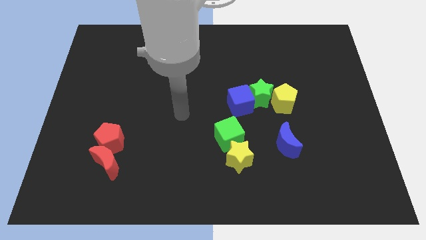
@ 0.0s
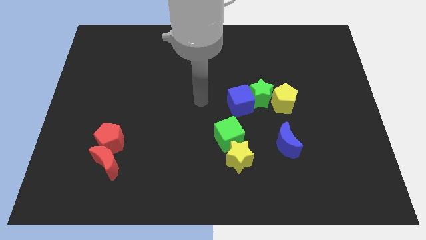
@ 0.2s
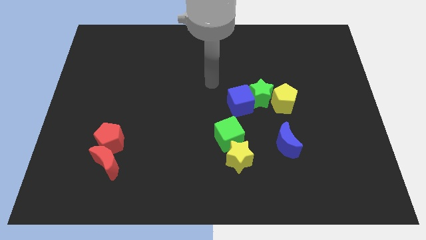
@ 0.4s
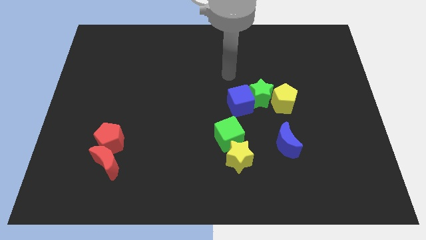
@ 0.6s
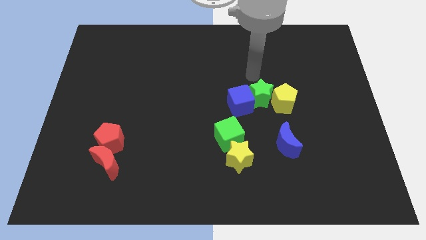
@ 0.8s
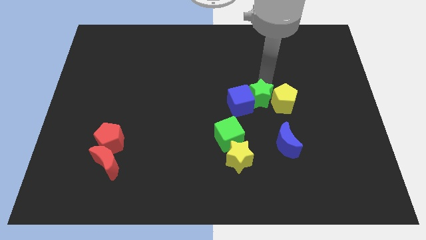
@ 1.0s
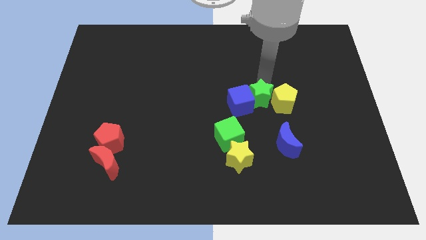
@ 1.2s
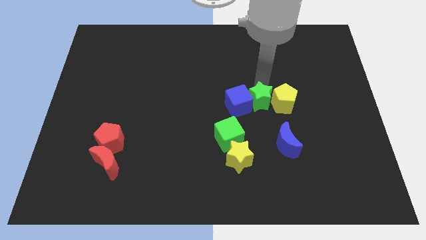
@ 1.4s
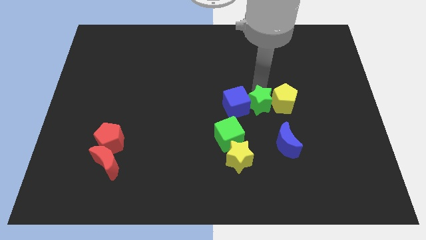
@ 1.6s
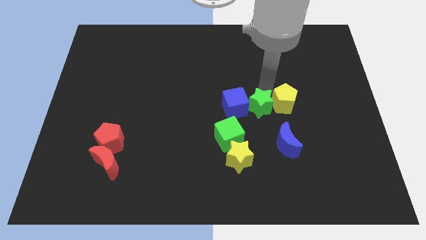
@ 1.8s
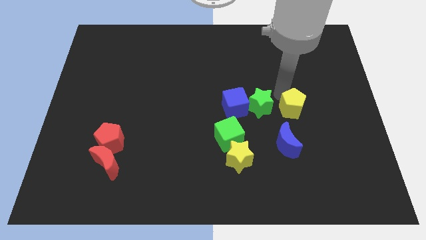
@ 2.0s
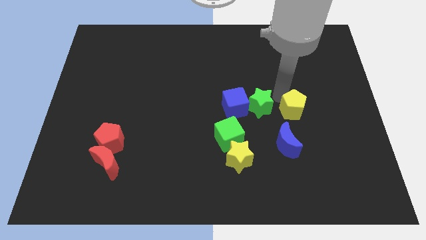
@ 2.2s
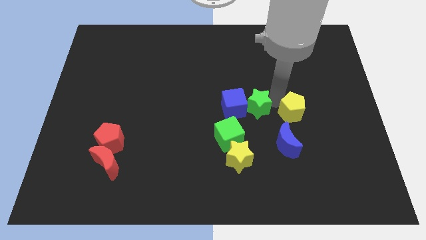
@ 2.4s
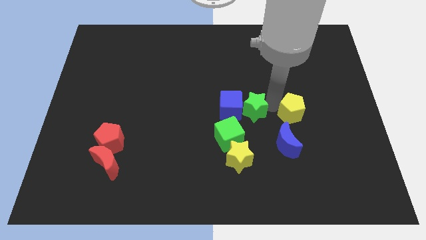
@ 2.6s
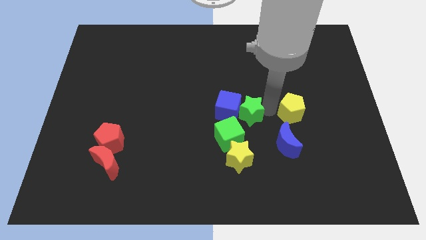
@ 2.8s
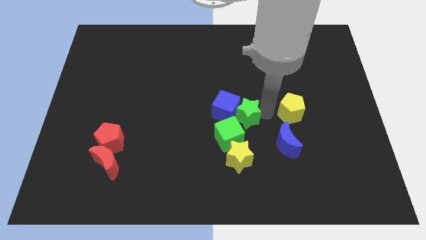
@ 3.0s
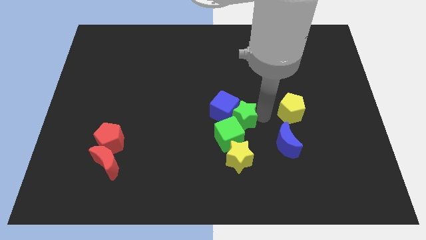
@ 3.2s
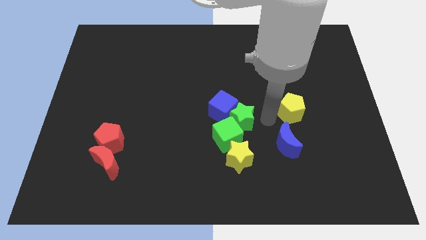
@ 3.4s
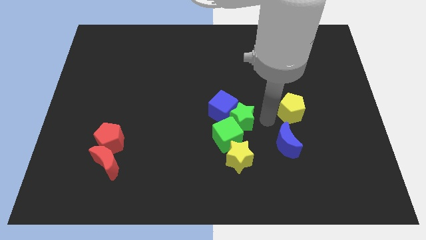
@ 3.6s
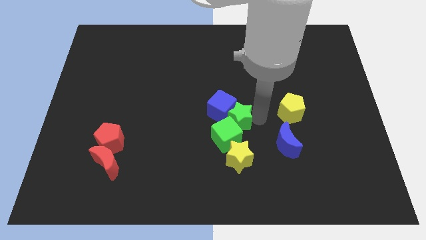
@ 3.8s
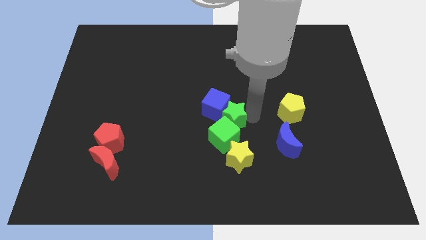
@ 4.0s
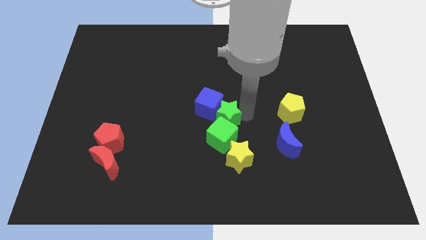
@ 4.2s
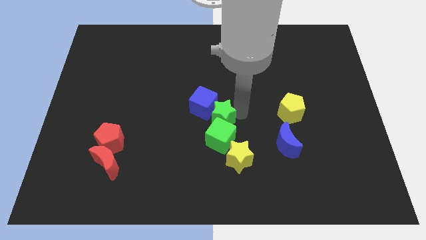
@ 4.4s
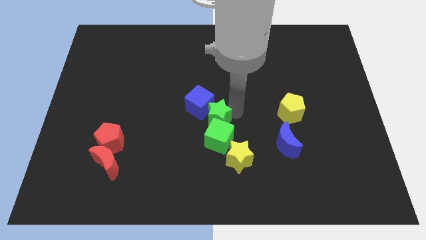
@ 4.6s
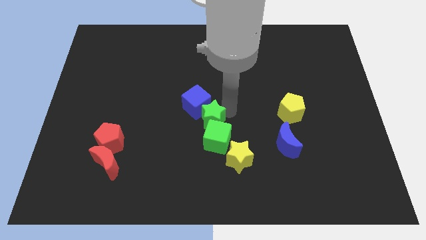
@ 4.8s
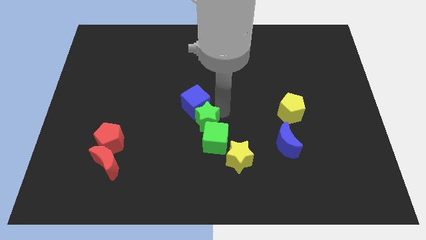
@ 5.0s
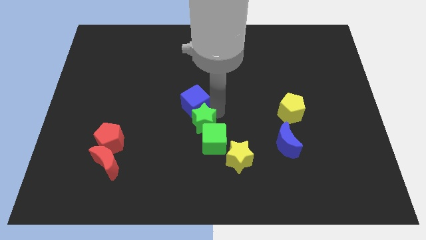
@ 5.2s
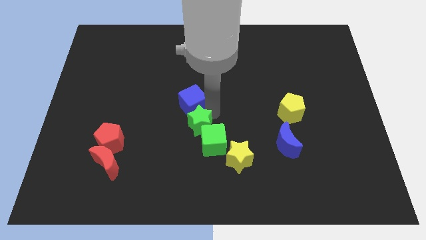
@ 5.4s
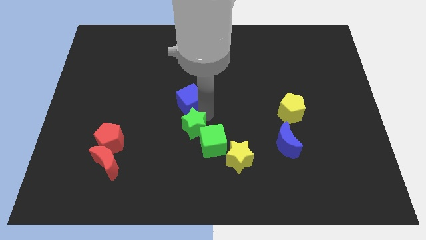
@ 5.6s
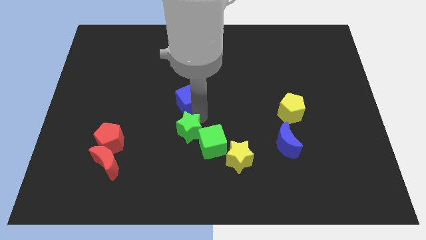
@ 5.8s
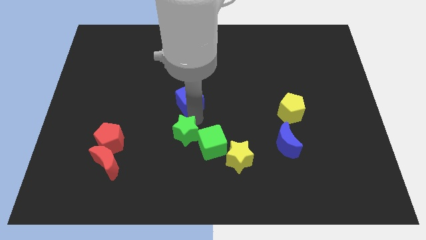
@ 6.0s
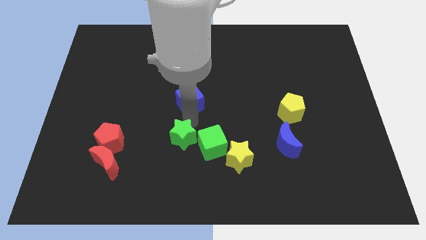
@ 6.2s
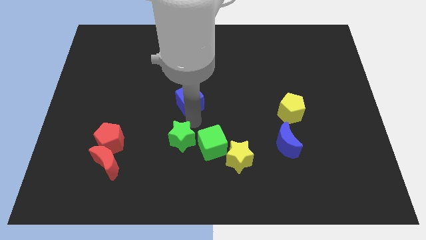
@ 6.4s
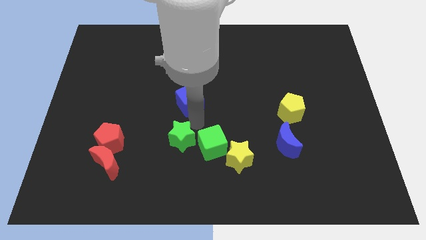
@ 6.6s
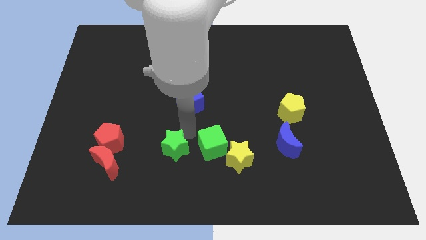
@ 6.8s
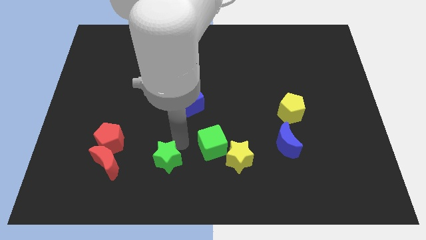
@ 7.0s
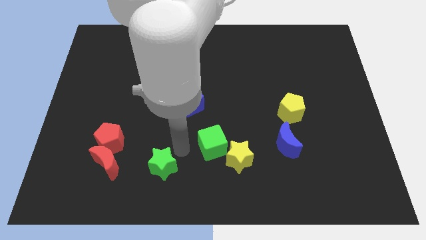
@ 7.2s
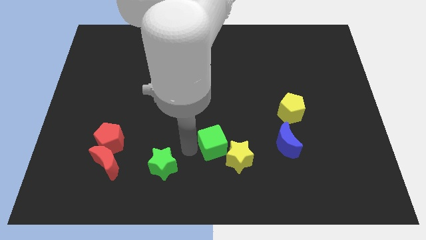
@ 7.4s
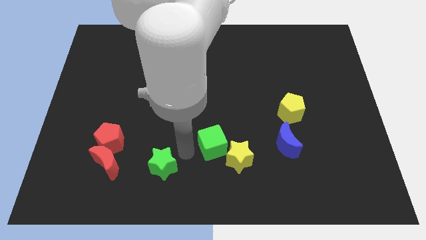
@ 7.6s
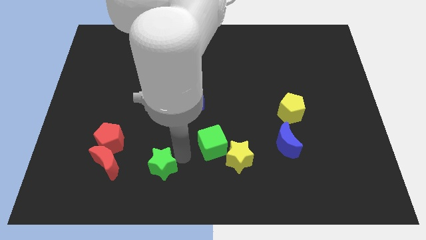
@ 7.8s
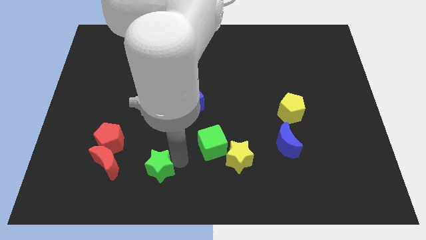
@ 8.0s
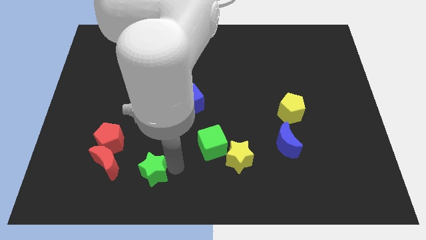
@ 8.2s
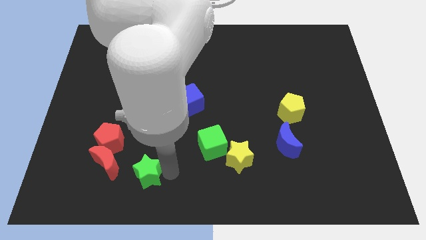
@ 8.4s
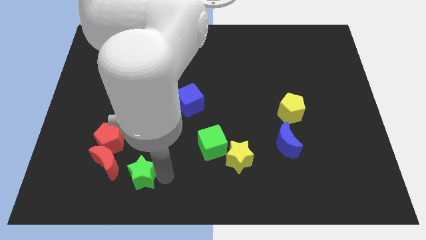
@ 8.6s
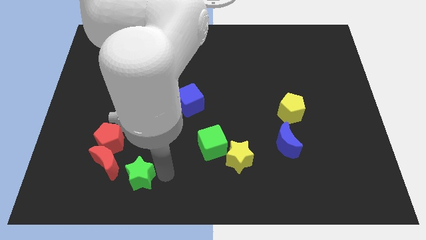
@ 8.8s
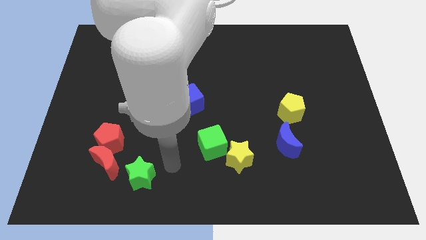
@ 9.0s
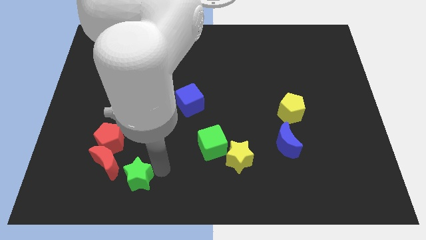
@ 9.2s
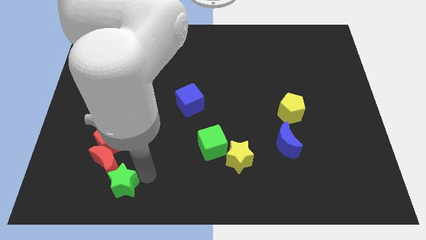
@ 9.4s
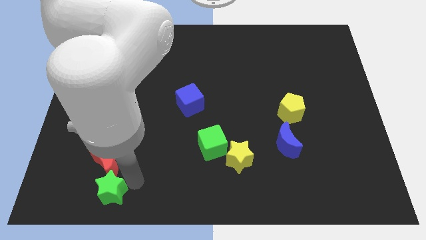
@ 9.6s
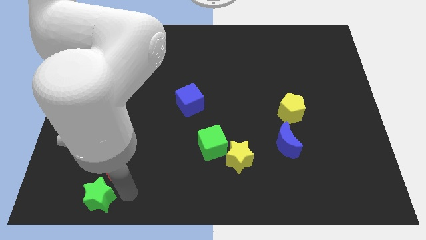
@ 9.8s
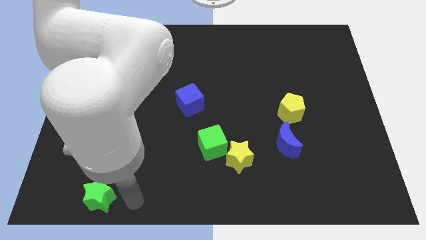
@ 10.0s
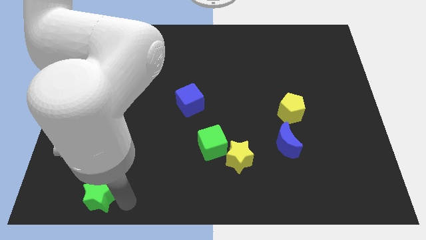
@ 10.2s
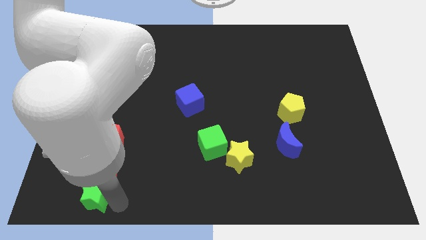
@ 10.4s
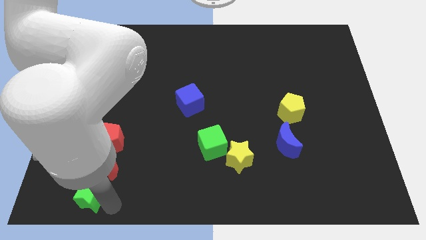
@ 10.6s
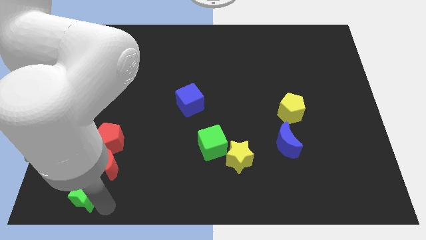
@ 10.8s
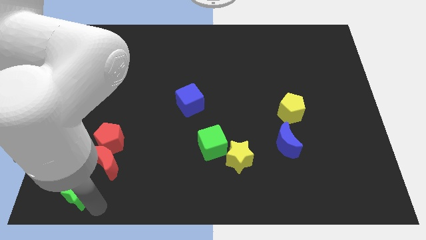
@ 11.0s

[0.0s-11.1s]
put the green star to the lower left corner

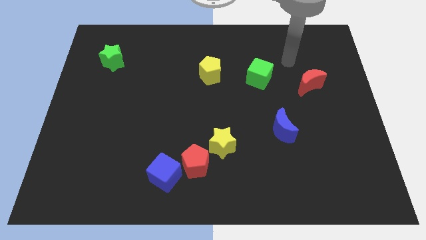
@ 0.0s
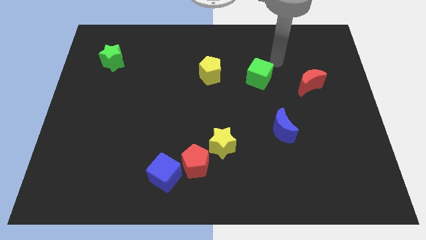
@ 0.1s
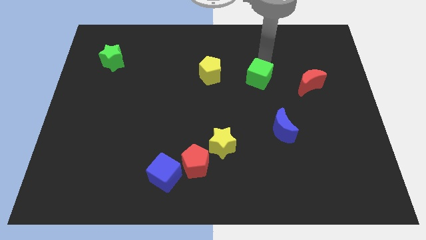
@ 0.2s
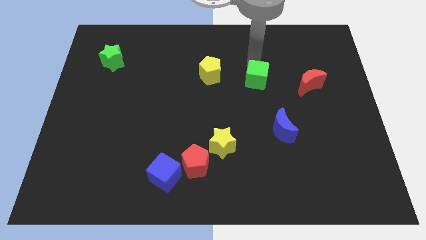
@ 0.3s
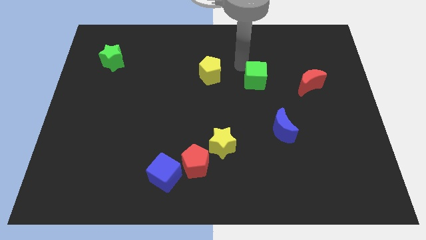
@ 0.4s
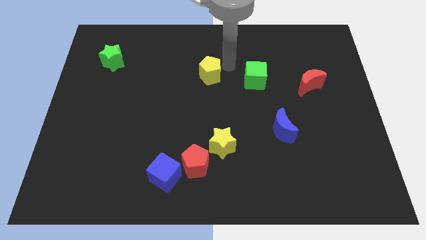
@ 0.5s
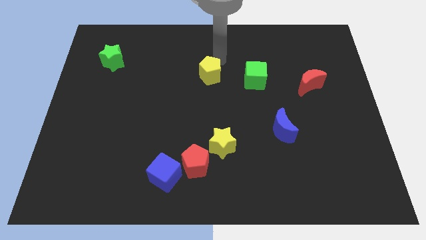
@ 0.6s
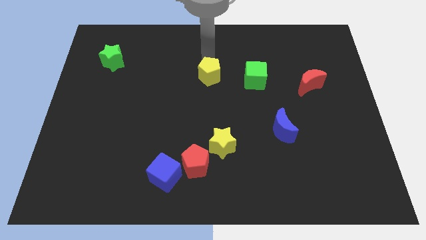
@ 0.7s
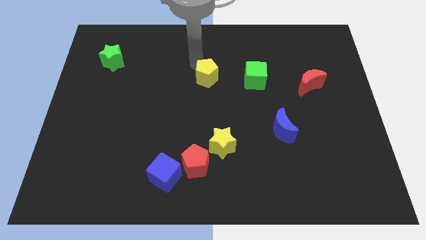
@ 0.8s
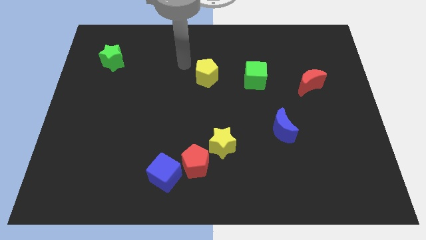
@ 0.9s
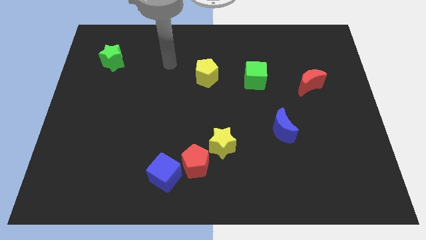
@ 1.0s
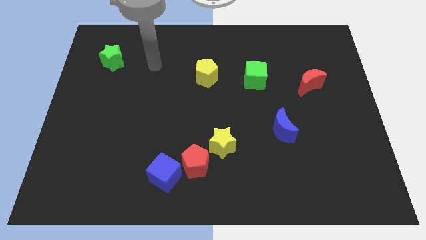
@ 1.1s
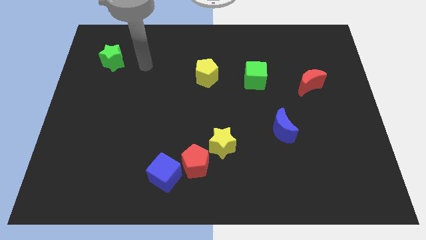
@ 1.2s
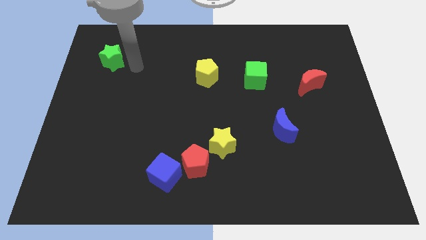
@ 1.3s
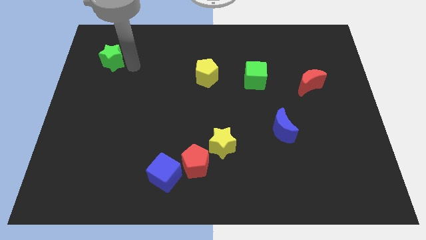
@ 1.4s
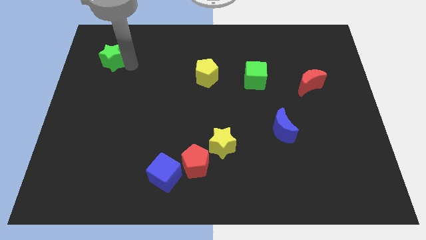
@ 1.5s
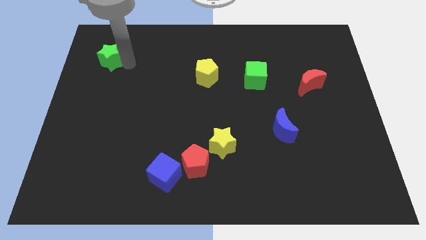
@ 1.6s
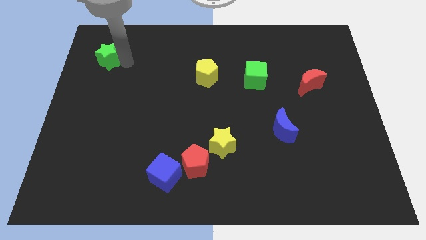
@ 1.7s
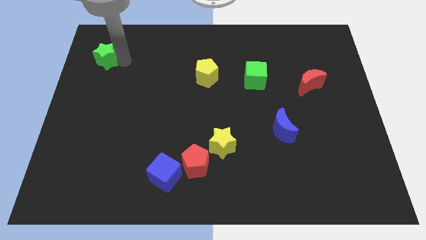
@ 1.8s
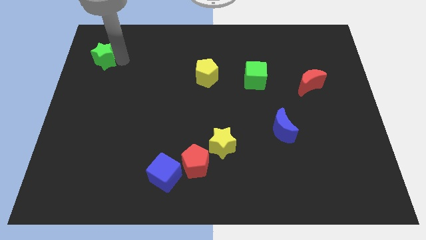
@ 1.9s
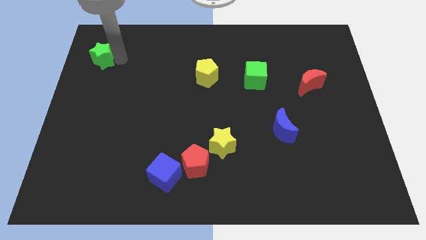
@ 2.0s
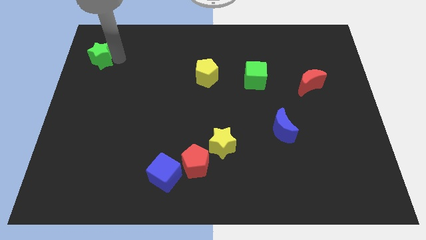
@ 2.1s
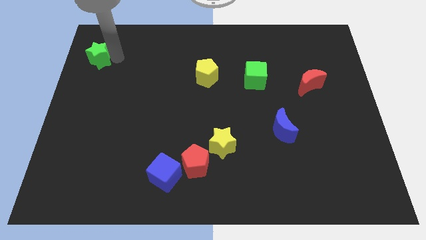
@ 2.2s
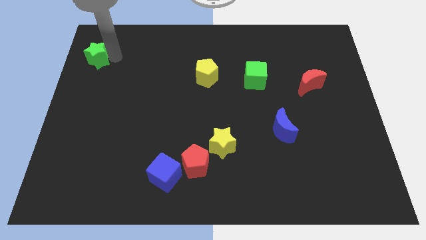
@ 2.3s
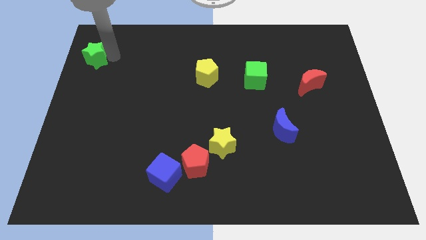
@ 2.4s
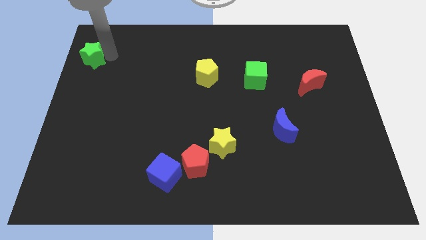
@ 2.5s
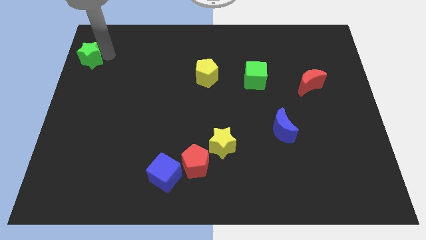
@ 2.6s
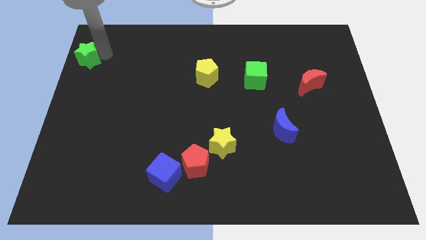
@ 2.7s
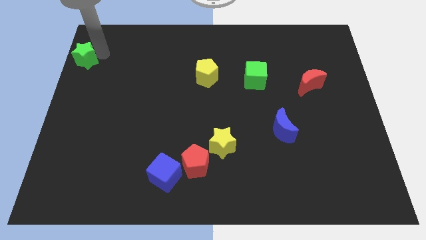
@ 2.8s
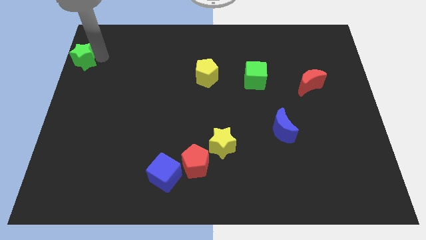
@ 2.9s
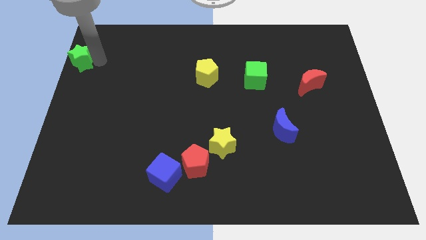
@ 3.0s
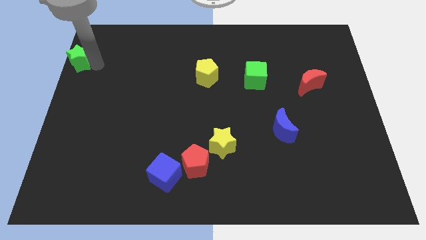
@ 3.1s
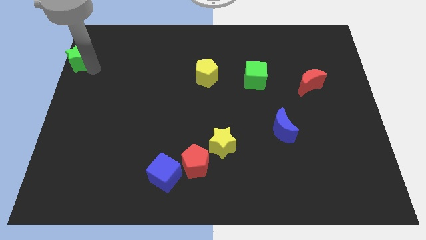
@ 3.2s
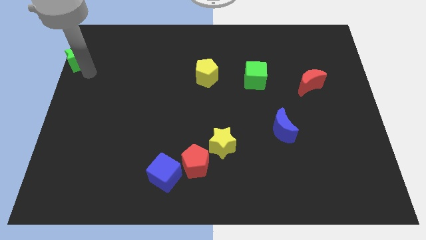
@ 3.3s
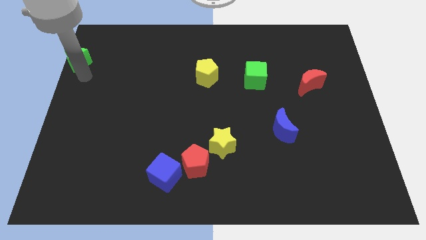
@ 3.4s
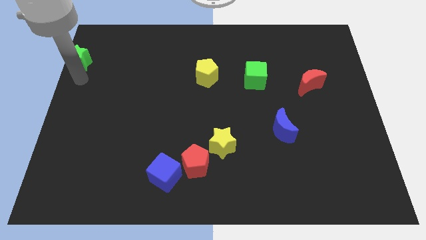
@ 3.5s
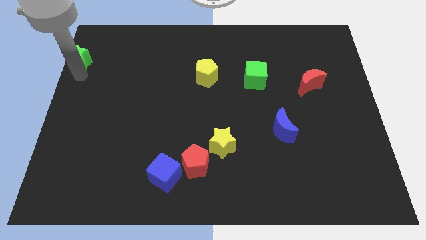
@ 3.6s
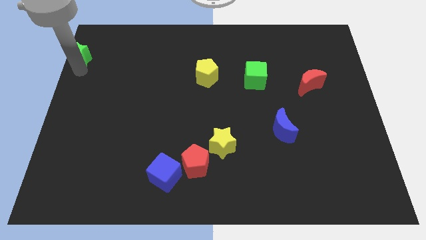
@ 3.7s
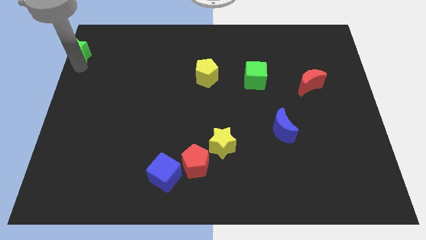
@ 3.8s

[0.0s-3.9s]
slide the green star to the top left
